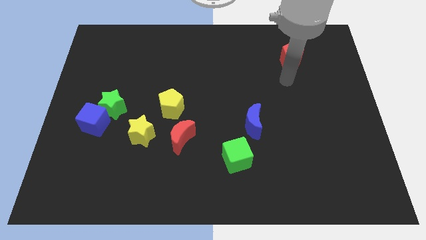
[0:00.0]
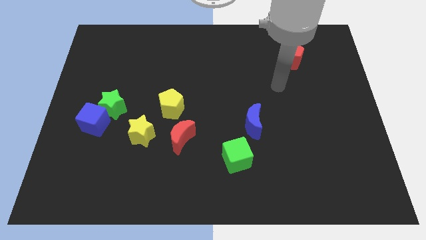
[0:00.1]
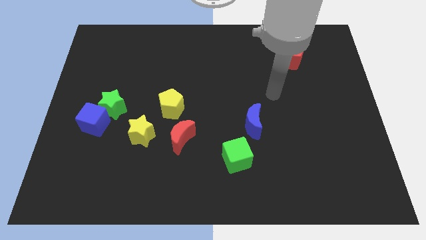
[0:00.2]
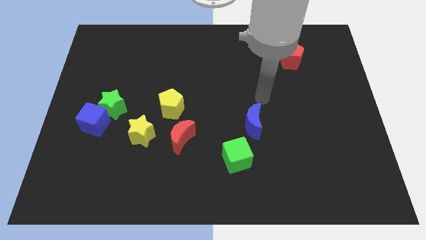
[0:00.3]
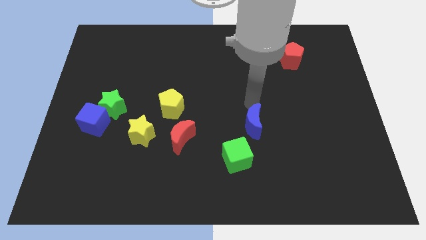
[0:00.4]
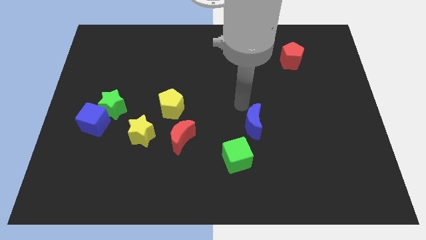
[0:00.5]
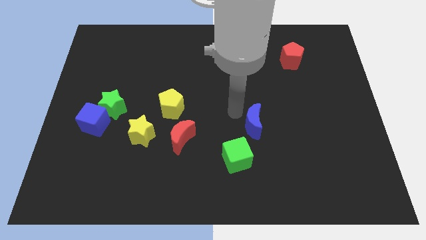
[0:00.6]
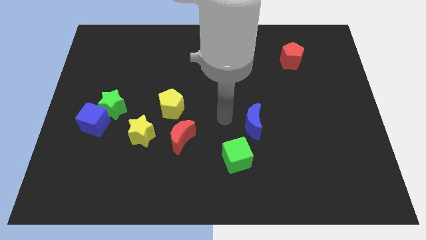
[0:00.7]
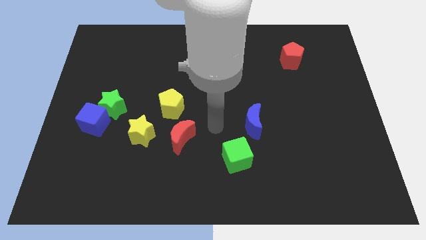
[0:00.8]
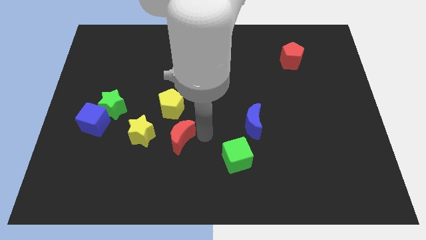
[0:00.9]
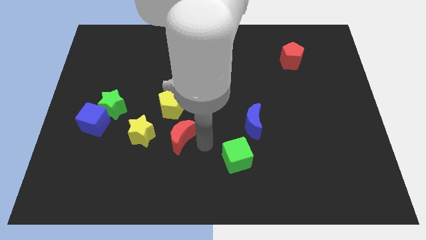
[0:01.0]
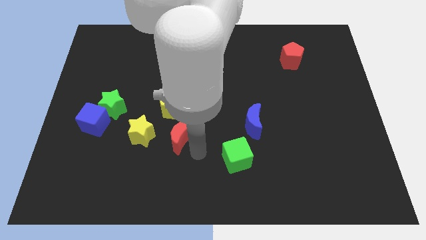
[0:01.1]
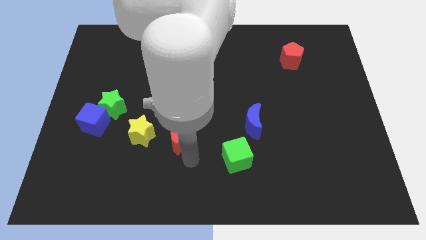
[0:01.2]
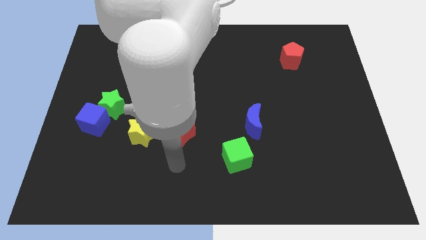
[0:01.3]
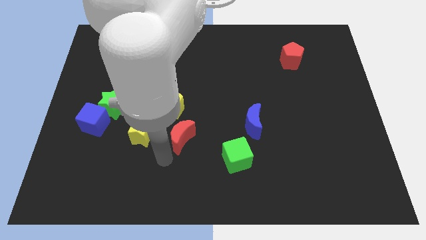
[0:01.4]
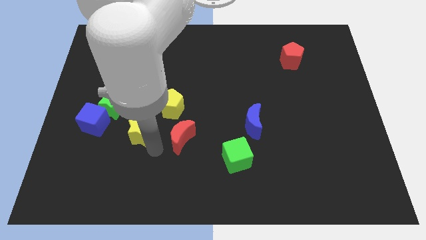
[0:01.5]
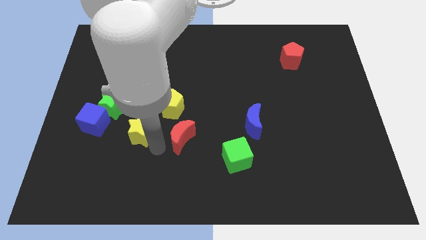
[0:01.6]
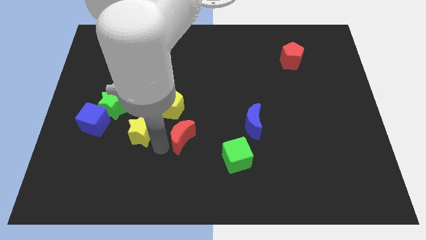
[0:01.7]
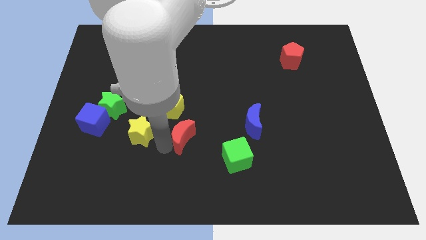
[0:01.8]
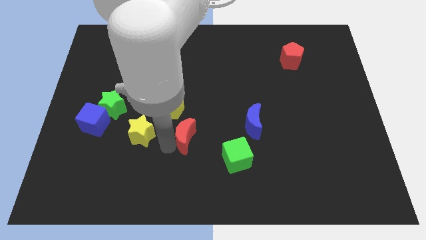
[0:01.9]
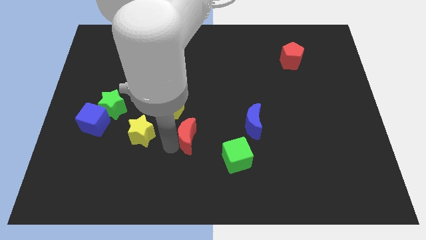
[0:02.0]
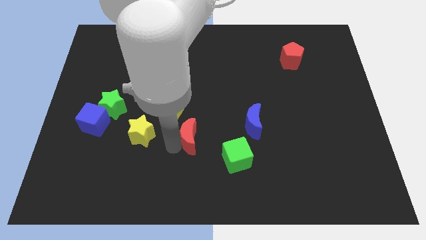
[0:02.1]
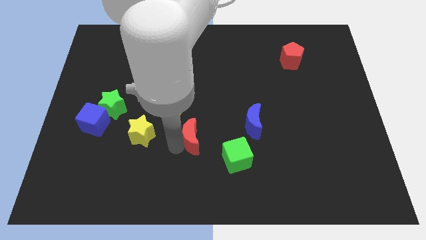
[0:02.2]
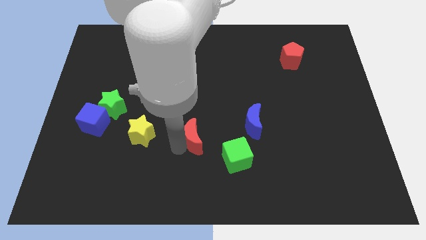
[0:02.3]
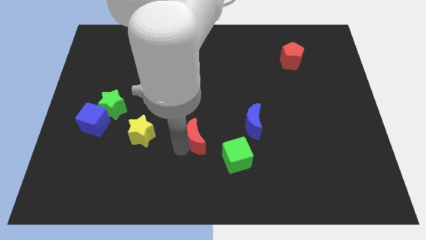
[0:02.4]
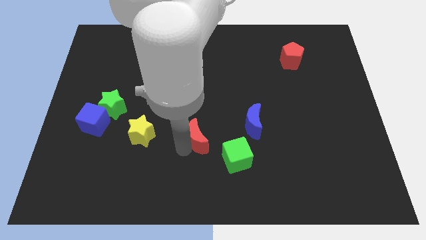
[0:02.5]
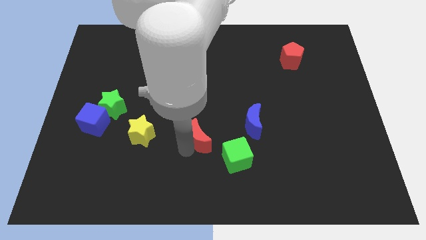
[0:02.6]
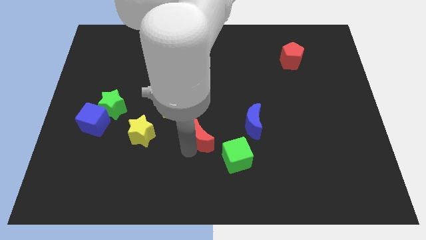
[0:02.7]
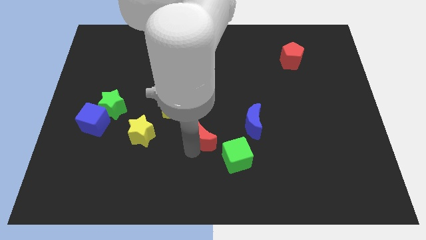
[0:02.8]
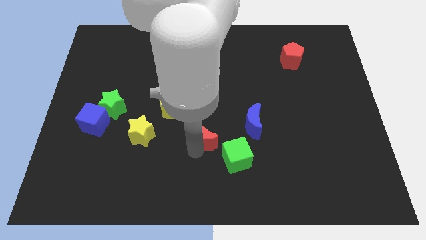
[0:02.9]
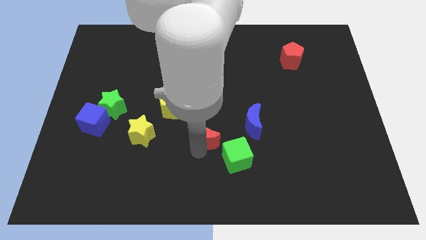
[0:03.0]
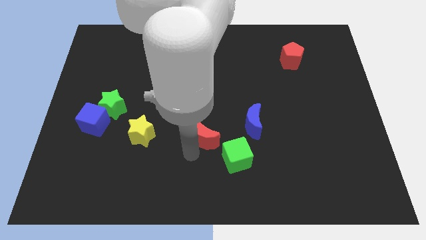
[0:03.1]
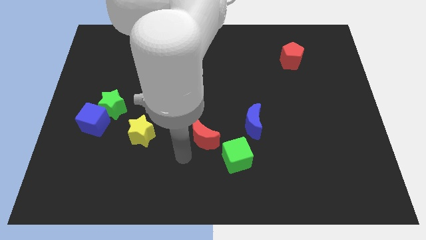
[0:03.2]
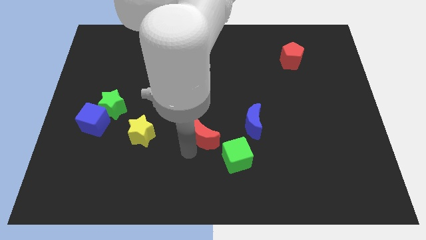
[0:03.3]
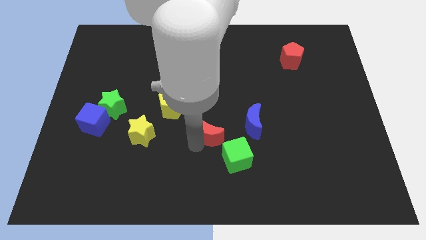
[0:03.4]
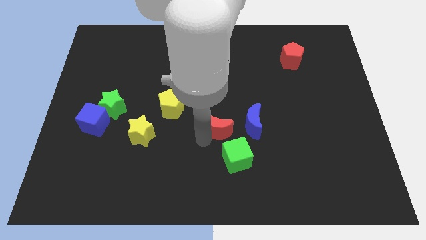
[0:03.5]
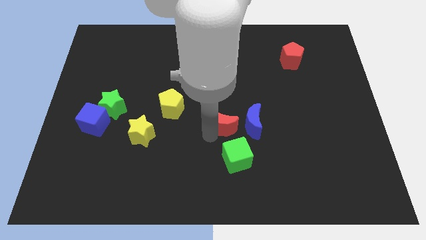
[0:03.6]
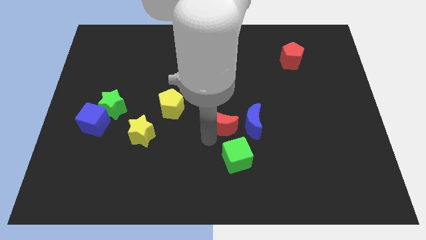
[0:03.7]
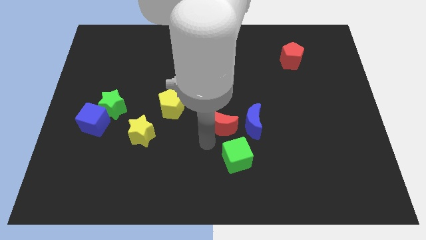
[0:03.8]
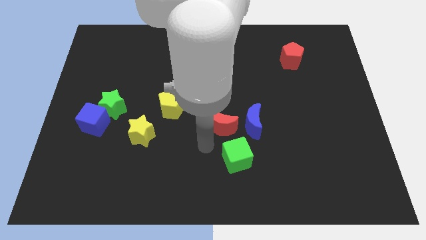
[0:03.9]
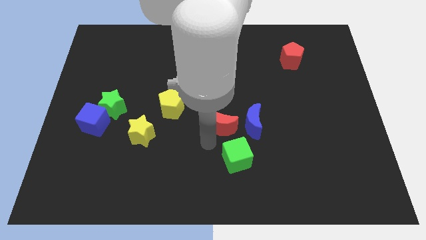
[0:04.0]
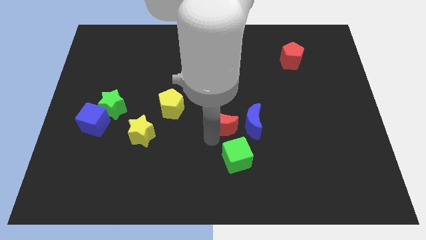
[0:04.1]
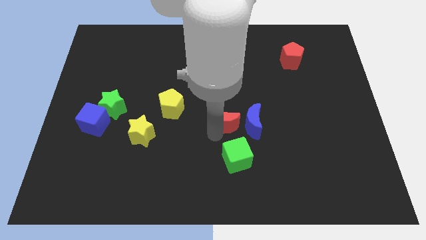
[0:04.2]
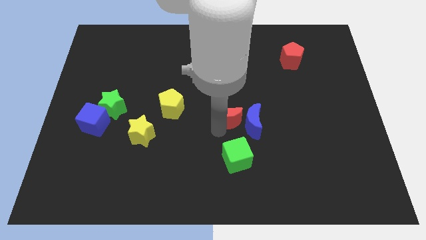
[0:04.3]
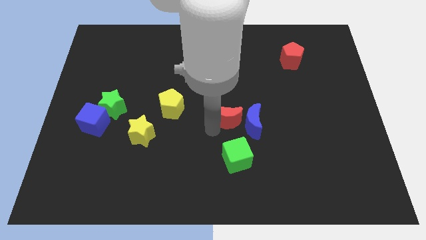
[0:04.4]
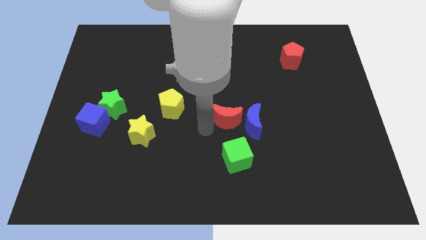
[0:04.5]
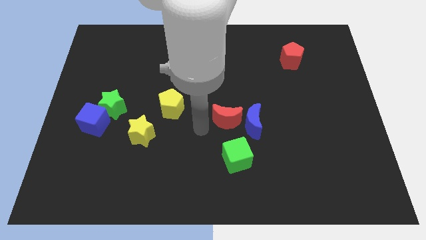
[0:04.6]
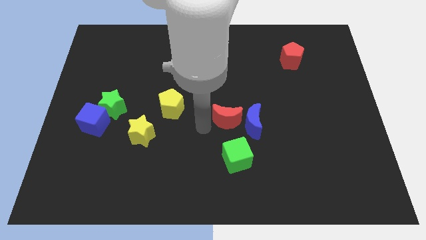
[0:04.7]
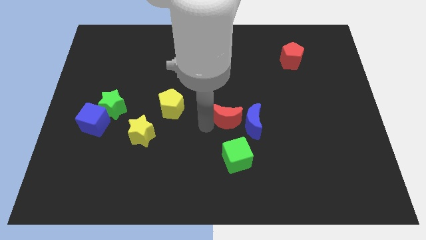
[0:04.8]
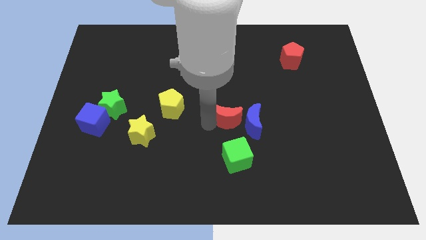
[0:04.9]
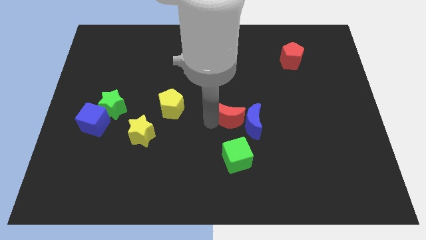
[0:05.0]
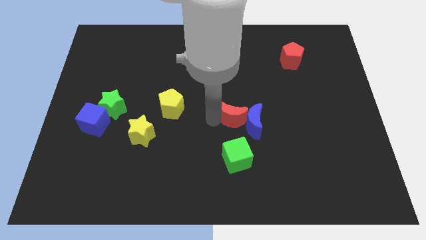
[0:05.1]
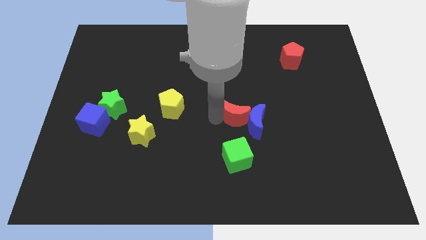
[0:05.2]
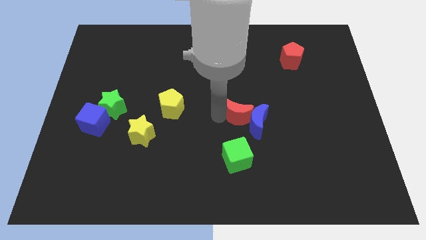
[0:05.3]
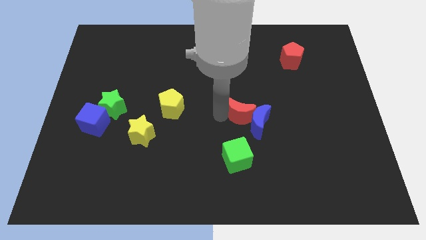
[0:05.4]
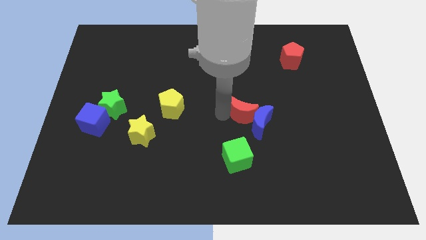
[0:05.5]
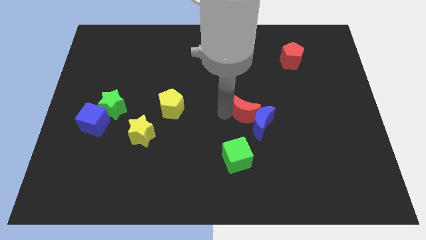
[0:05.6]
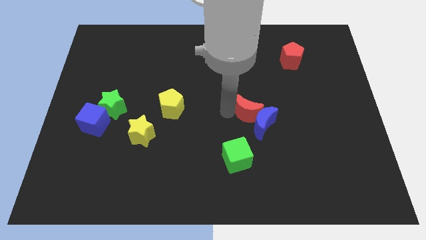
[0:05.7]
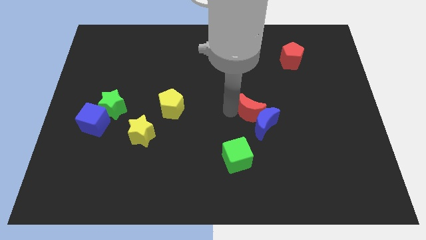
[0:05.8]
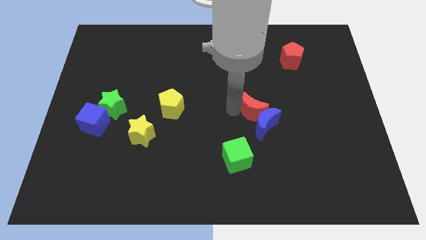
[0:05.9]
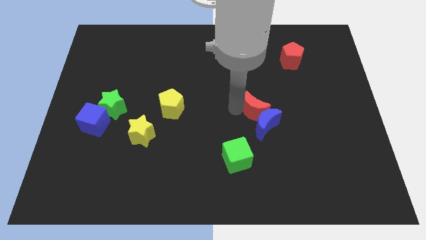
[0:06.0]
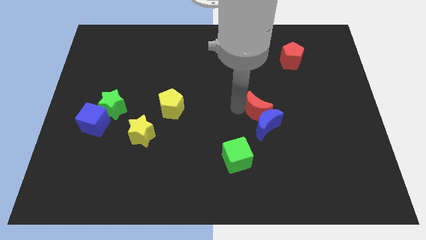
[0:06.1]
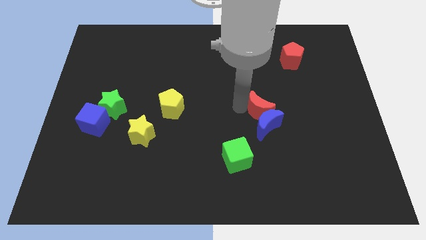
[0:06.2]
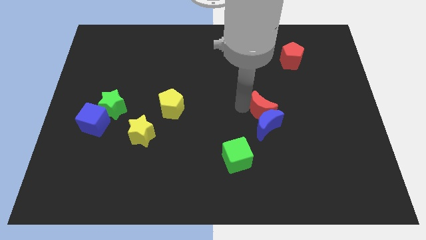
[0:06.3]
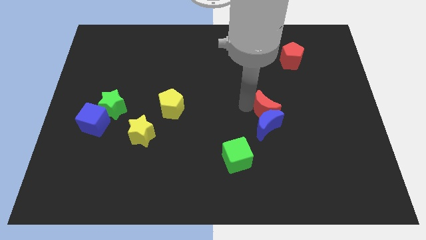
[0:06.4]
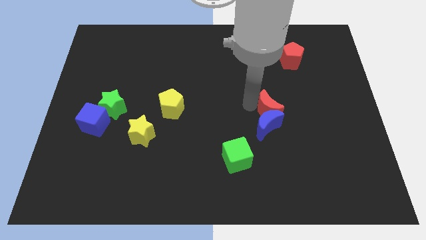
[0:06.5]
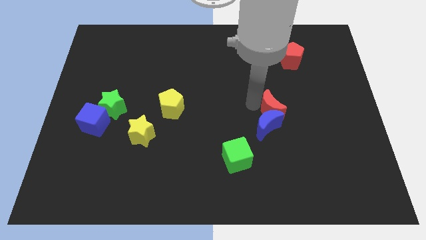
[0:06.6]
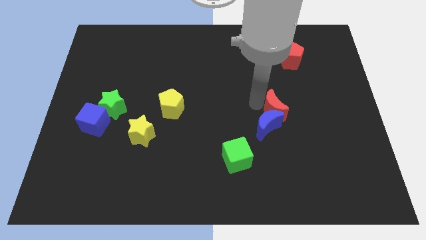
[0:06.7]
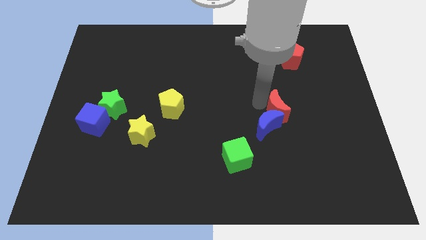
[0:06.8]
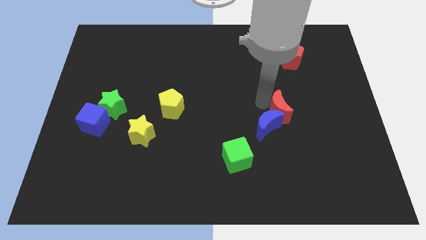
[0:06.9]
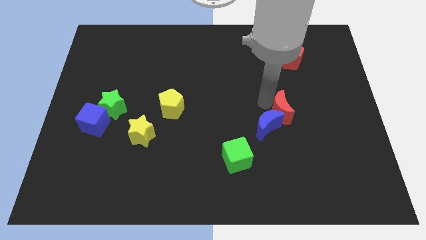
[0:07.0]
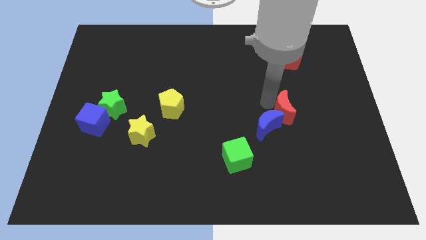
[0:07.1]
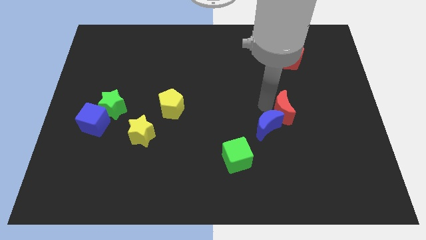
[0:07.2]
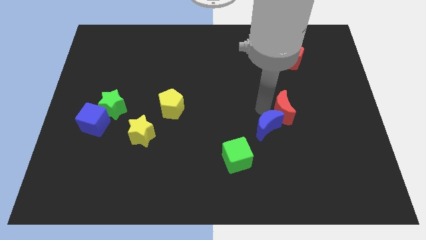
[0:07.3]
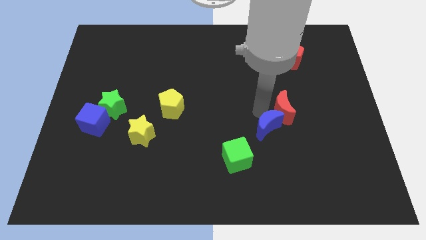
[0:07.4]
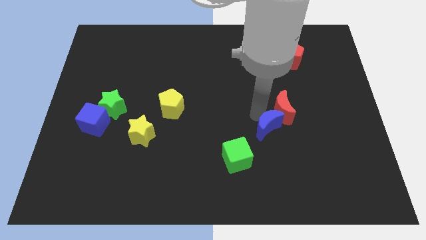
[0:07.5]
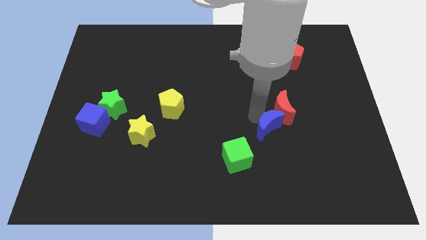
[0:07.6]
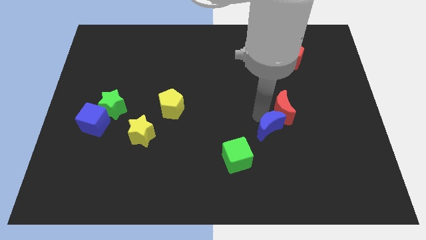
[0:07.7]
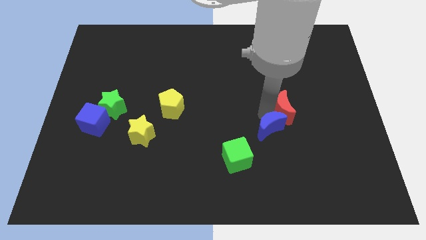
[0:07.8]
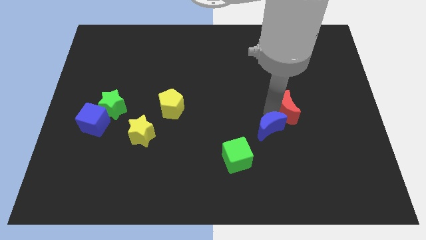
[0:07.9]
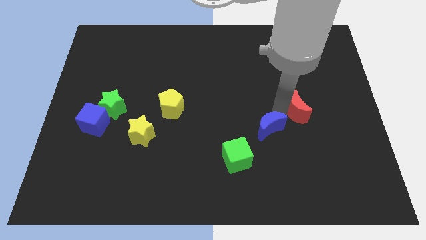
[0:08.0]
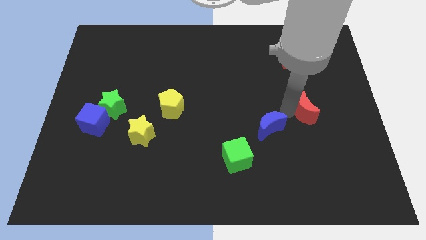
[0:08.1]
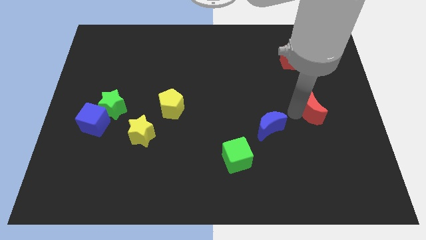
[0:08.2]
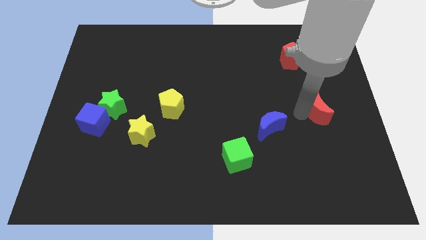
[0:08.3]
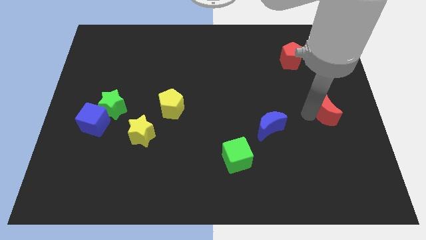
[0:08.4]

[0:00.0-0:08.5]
slide the red moon to the right side of the board
